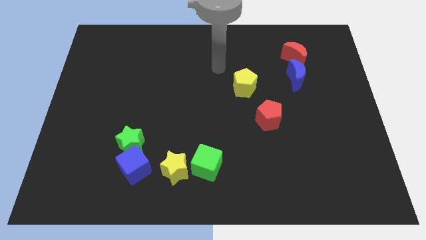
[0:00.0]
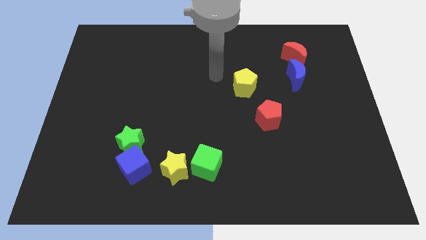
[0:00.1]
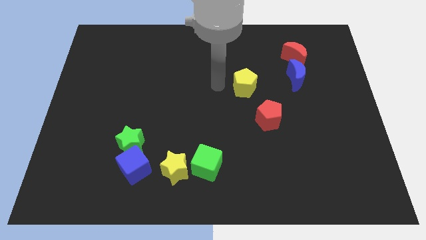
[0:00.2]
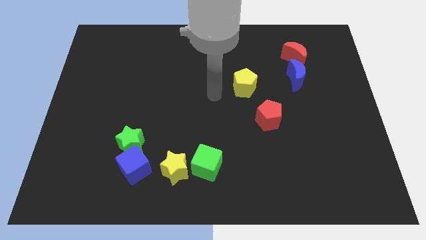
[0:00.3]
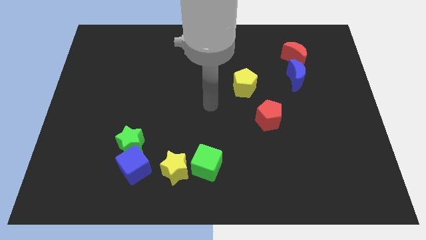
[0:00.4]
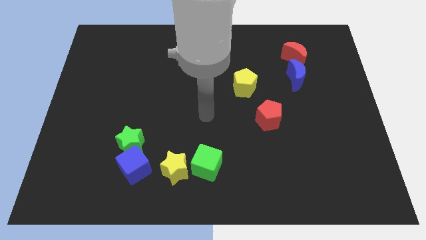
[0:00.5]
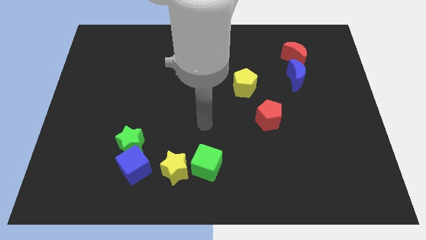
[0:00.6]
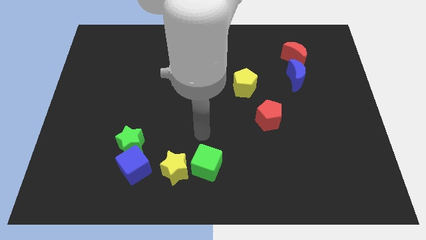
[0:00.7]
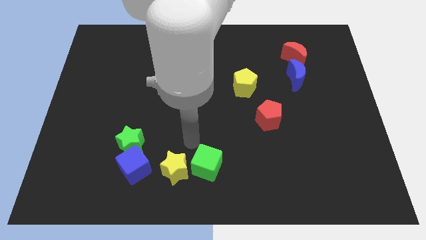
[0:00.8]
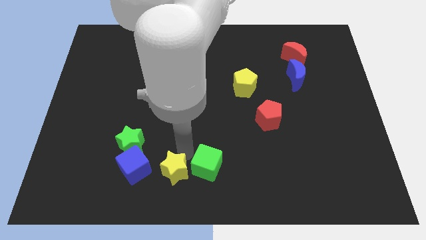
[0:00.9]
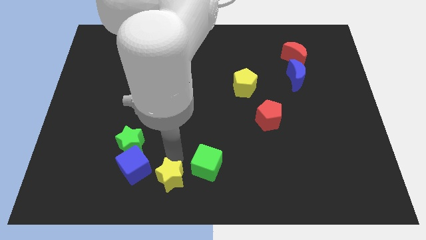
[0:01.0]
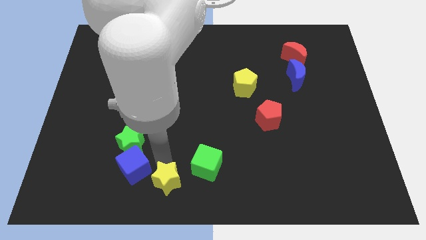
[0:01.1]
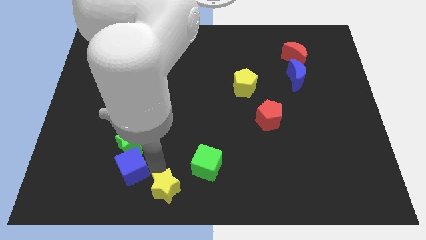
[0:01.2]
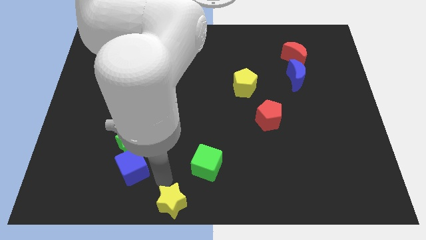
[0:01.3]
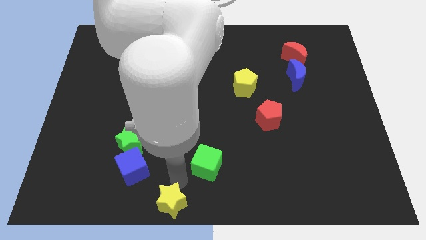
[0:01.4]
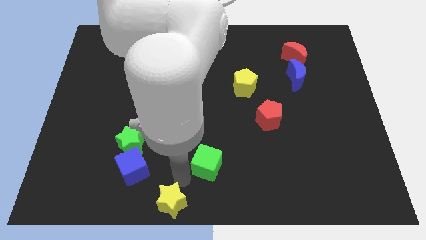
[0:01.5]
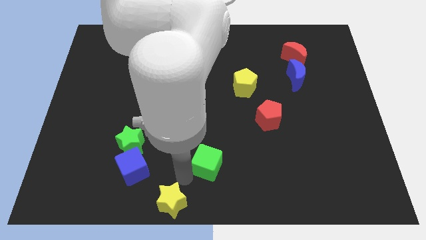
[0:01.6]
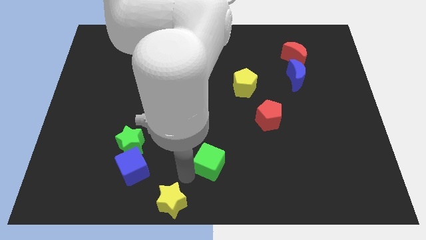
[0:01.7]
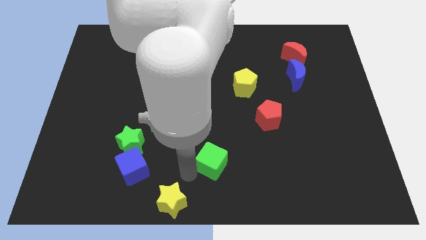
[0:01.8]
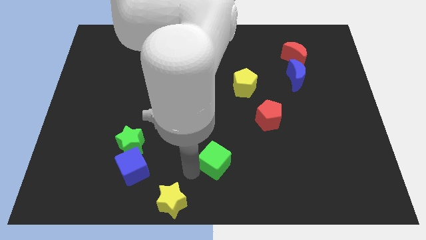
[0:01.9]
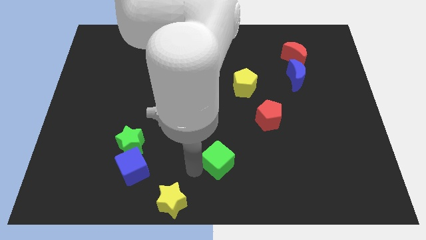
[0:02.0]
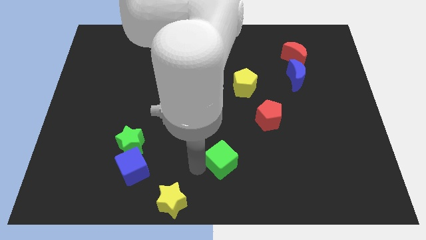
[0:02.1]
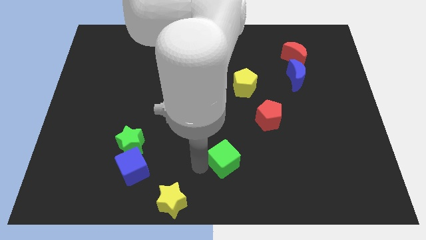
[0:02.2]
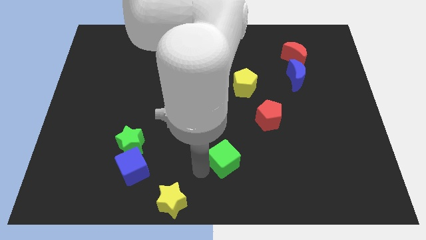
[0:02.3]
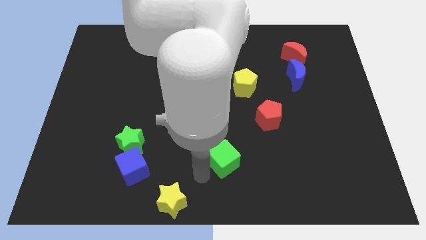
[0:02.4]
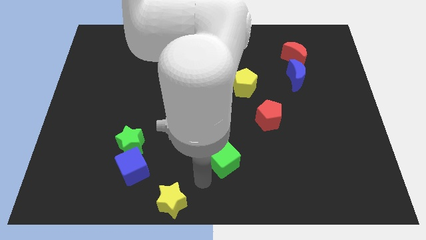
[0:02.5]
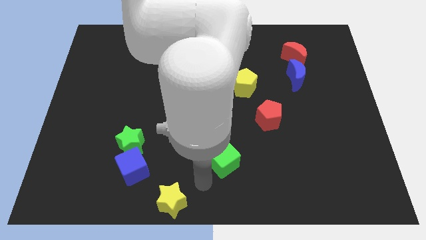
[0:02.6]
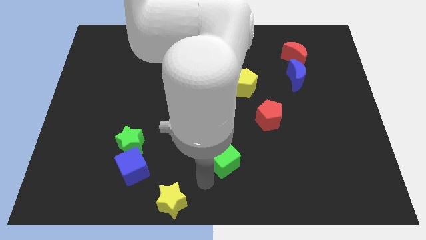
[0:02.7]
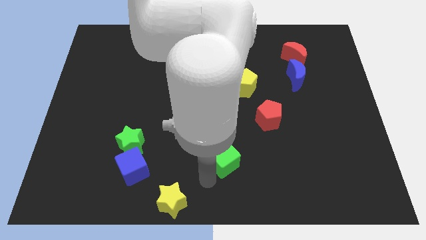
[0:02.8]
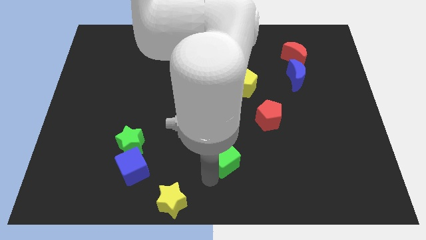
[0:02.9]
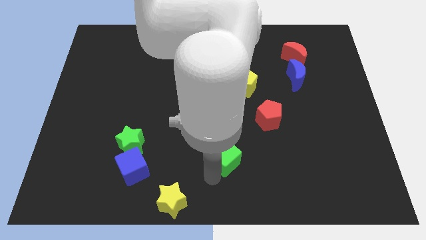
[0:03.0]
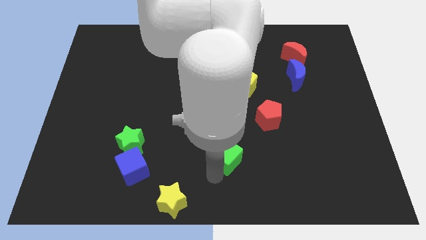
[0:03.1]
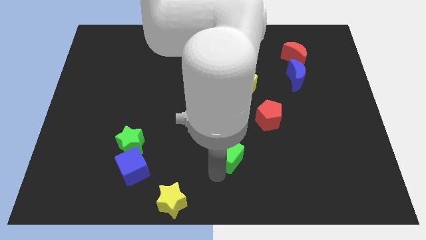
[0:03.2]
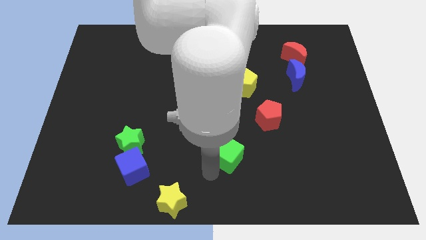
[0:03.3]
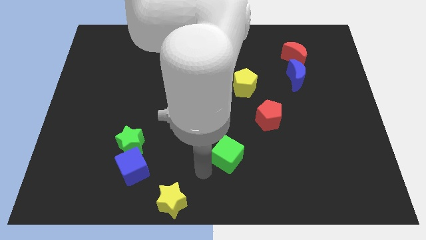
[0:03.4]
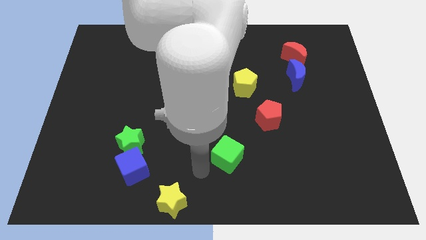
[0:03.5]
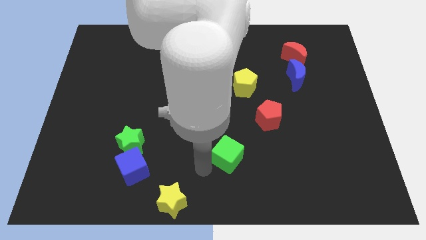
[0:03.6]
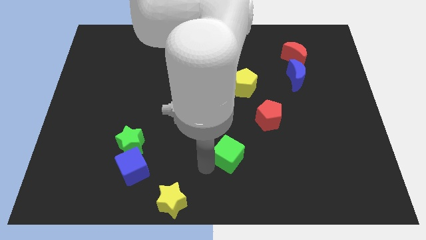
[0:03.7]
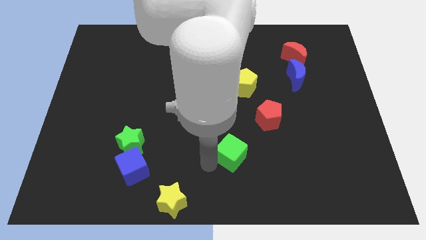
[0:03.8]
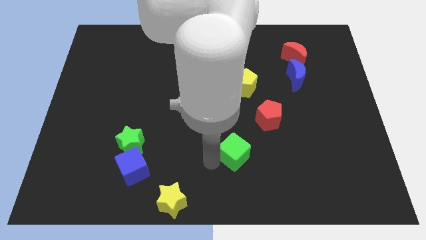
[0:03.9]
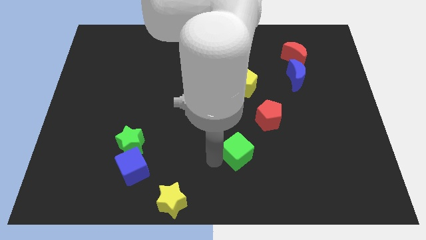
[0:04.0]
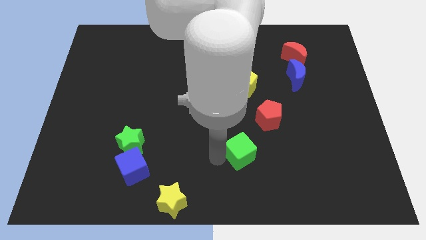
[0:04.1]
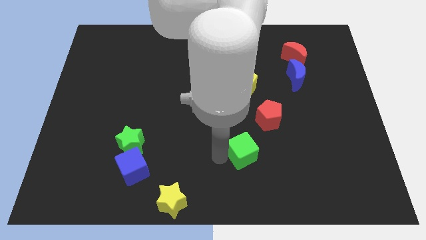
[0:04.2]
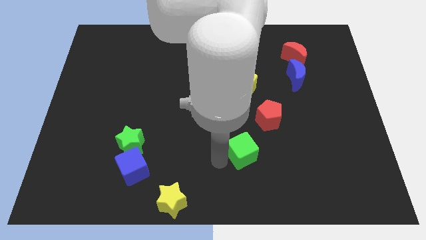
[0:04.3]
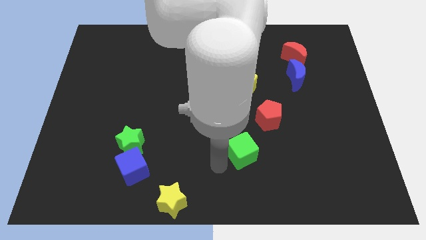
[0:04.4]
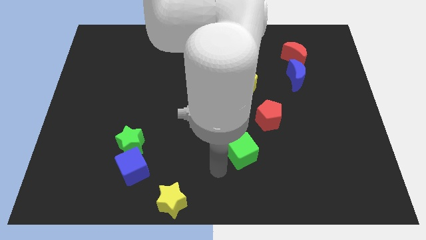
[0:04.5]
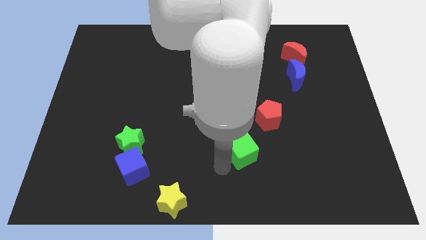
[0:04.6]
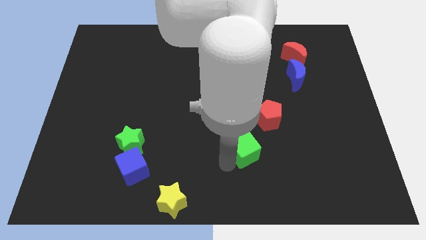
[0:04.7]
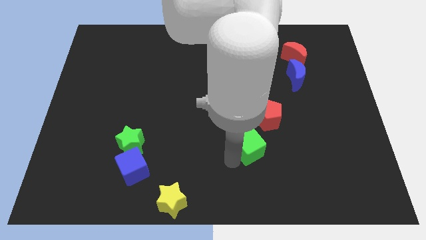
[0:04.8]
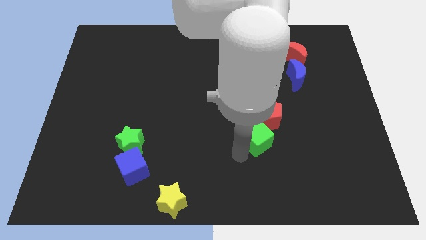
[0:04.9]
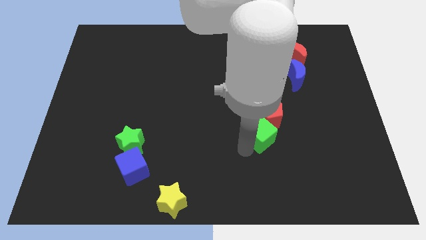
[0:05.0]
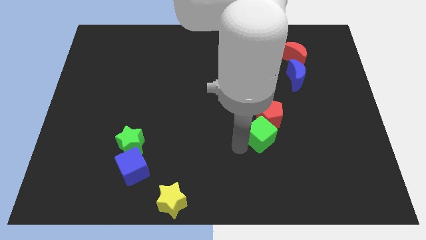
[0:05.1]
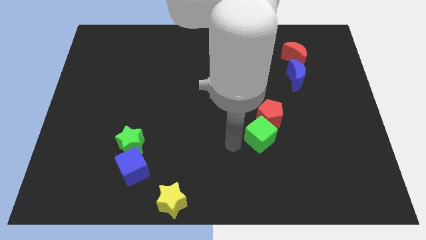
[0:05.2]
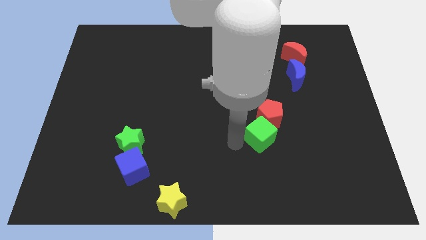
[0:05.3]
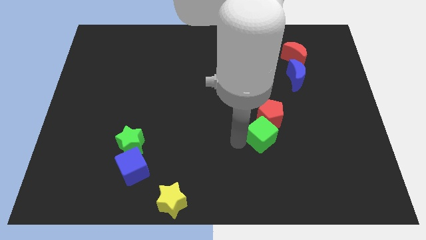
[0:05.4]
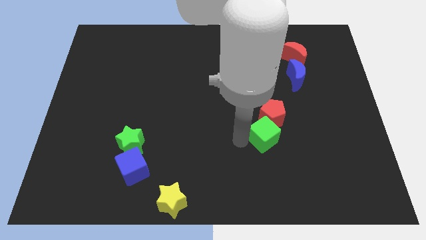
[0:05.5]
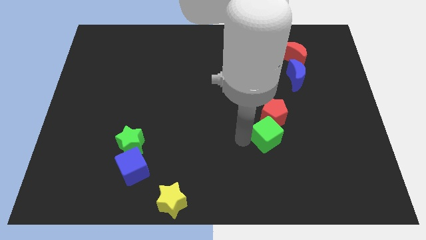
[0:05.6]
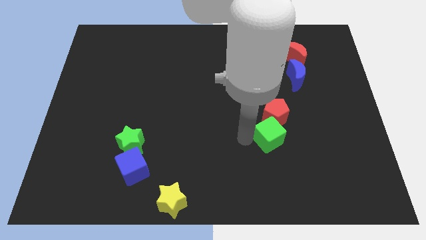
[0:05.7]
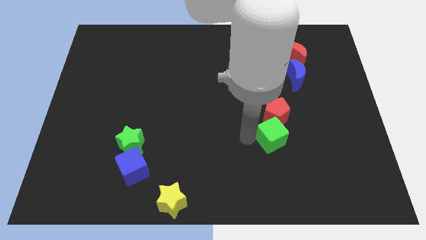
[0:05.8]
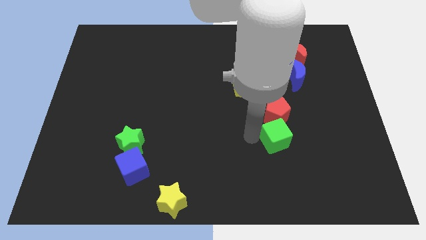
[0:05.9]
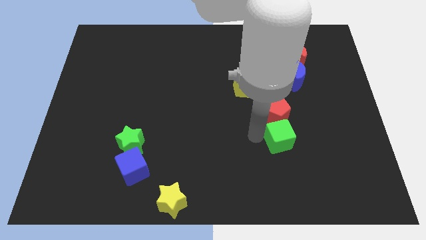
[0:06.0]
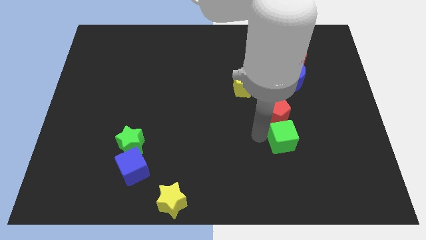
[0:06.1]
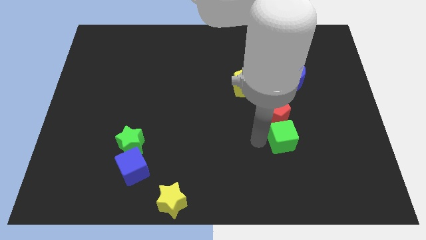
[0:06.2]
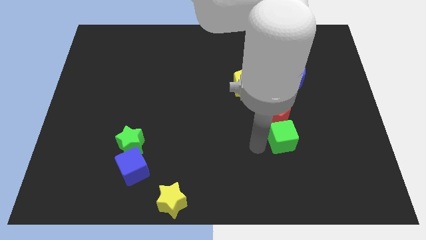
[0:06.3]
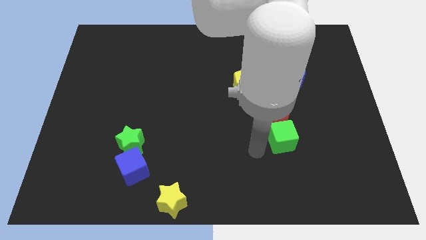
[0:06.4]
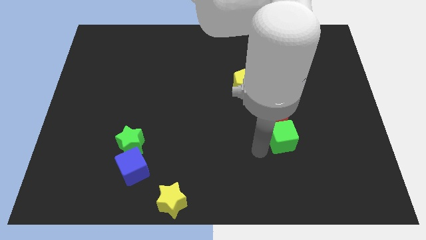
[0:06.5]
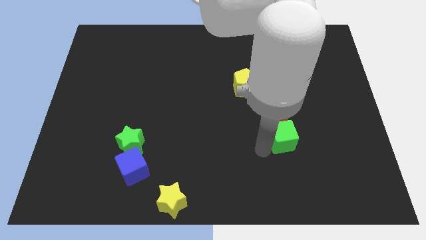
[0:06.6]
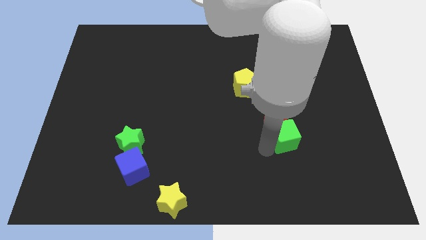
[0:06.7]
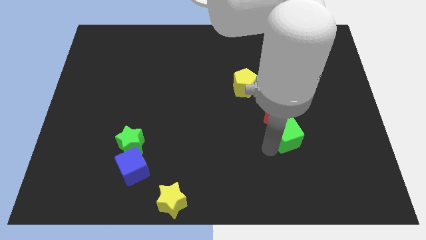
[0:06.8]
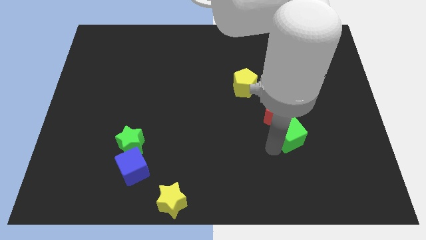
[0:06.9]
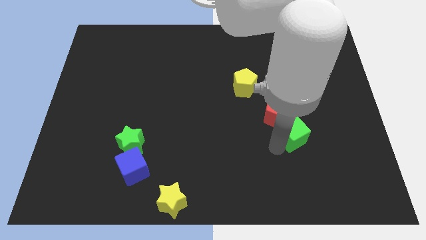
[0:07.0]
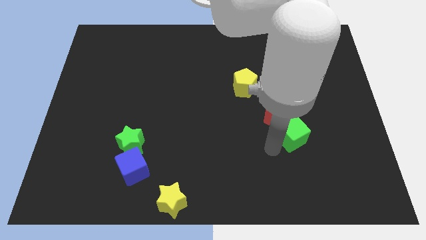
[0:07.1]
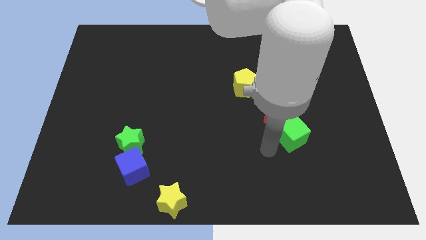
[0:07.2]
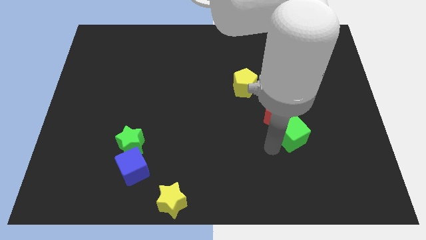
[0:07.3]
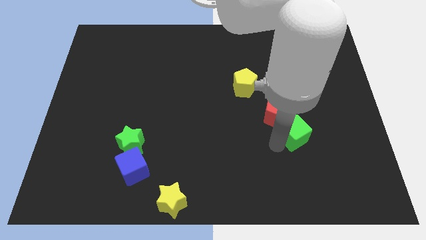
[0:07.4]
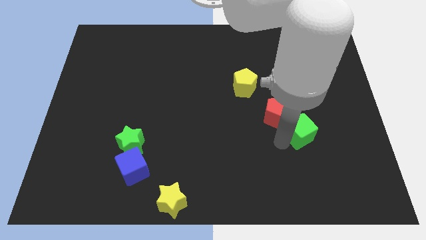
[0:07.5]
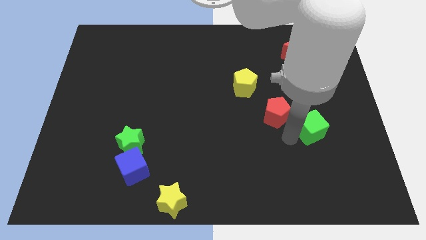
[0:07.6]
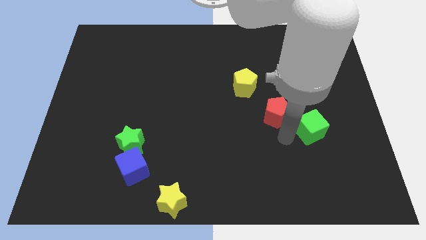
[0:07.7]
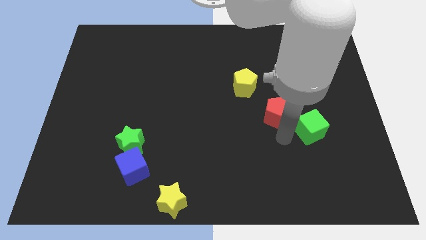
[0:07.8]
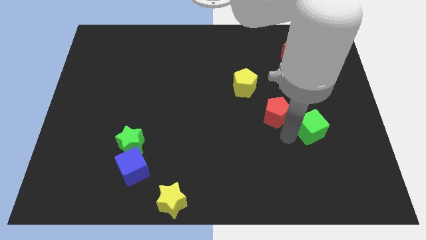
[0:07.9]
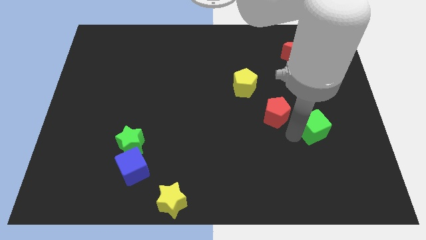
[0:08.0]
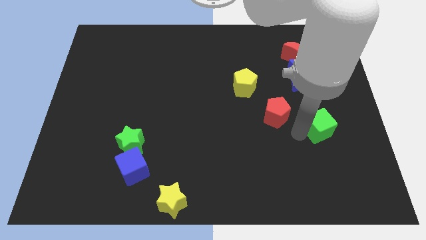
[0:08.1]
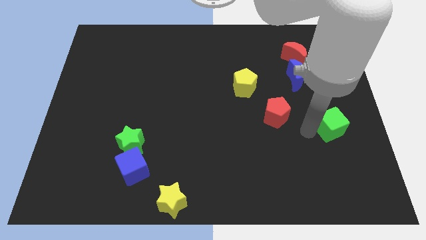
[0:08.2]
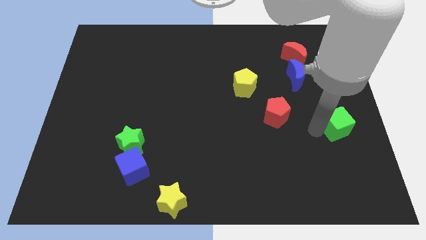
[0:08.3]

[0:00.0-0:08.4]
slide the green cube to the right side of the board
